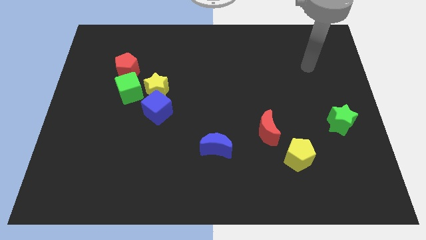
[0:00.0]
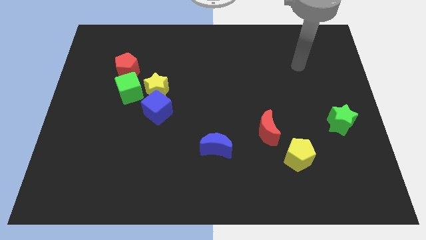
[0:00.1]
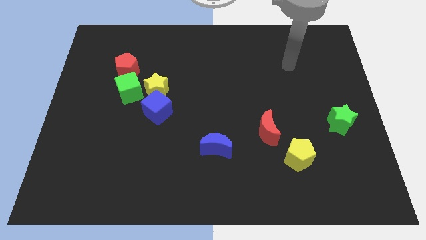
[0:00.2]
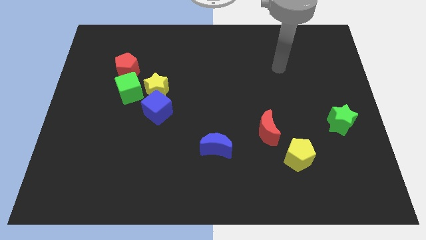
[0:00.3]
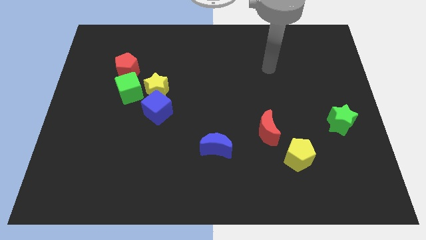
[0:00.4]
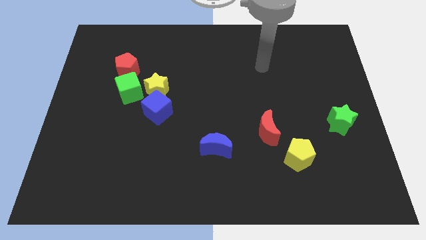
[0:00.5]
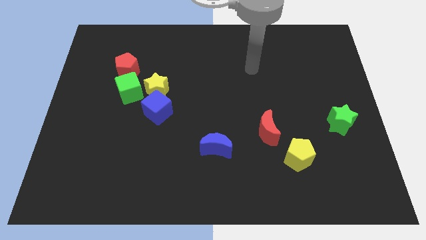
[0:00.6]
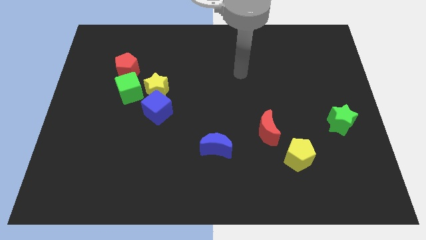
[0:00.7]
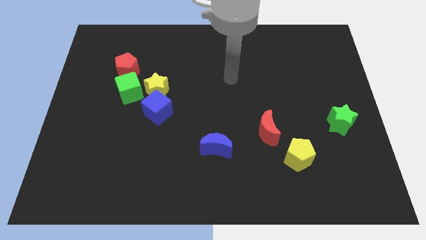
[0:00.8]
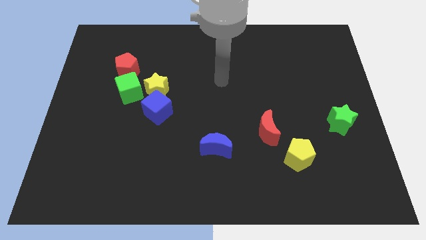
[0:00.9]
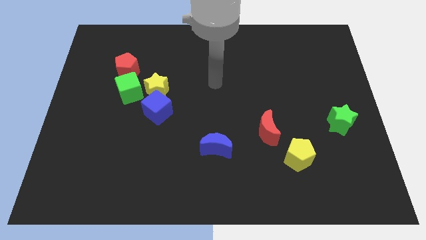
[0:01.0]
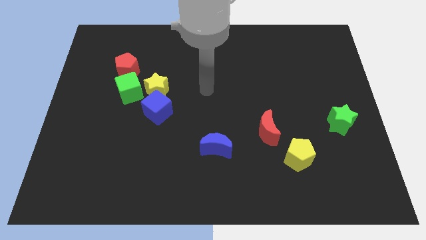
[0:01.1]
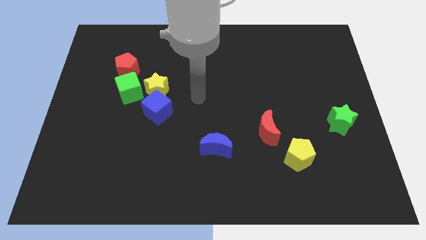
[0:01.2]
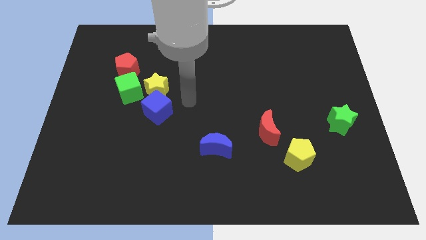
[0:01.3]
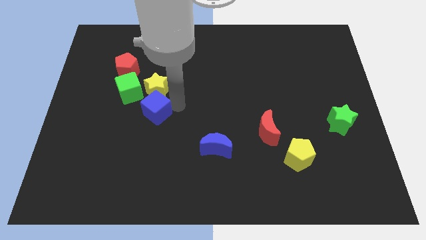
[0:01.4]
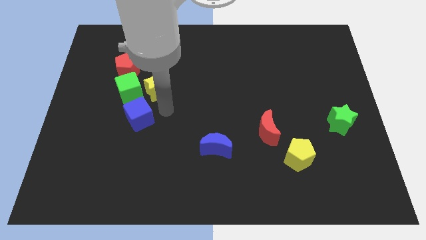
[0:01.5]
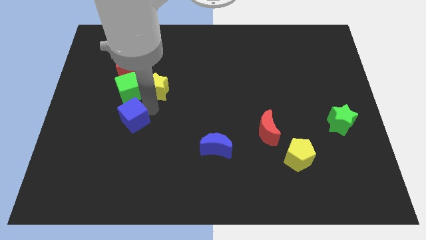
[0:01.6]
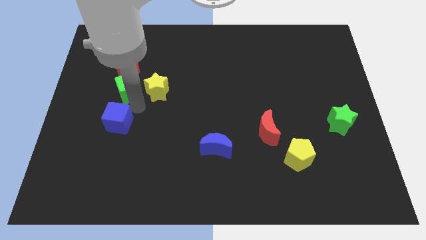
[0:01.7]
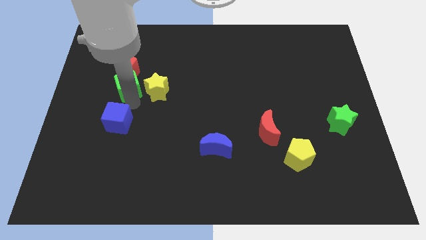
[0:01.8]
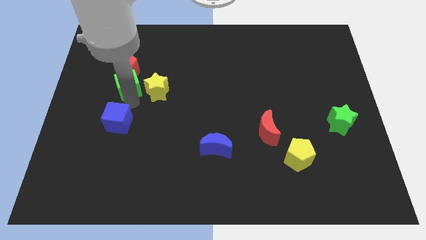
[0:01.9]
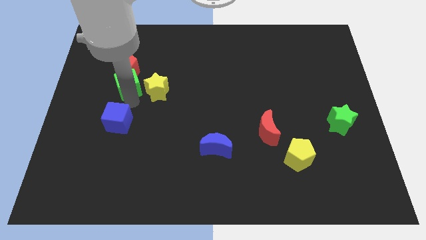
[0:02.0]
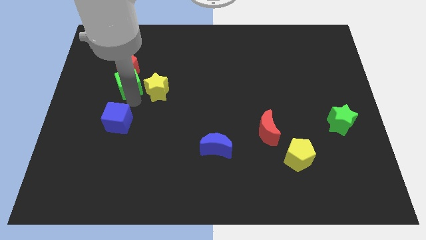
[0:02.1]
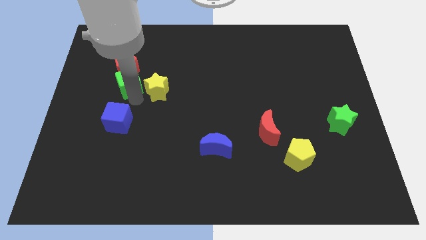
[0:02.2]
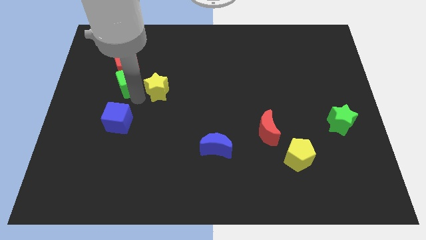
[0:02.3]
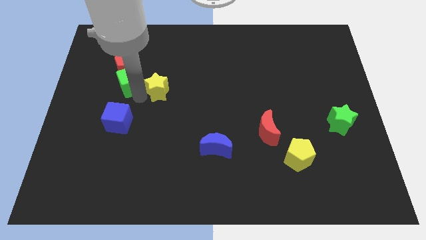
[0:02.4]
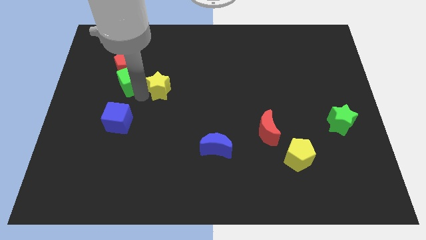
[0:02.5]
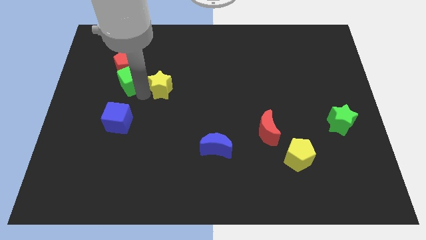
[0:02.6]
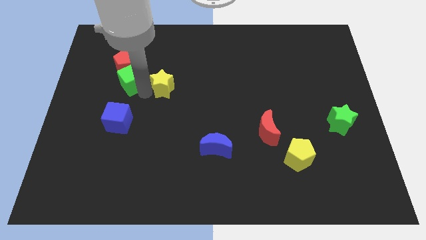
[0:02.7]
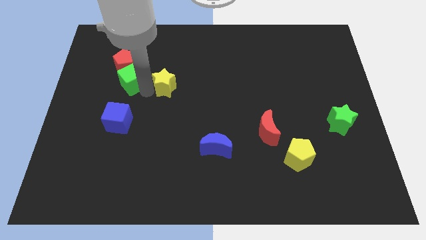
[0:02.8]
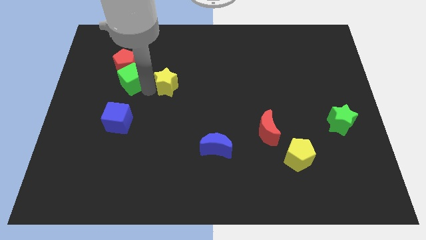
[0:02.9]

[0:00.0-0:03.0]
move the yellow star away from the blue cube and green cube

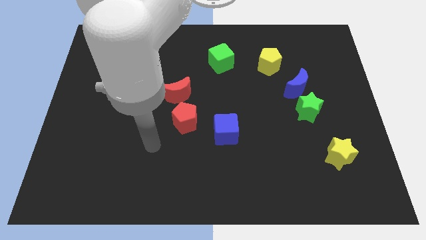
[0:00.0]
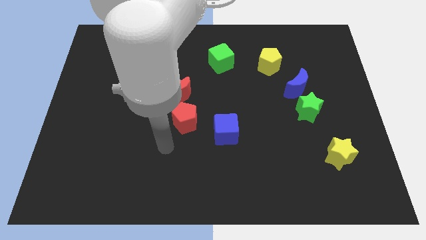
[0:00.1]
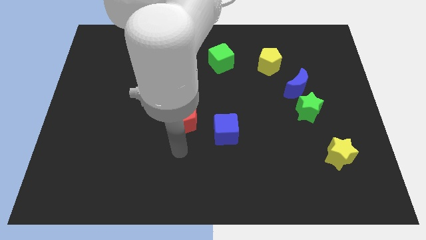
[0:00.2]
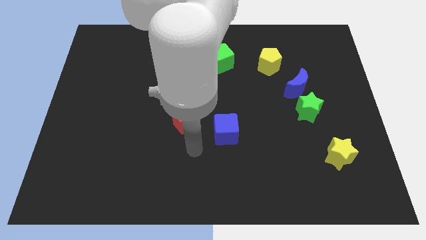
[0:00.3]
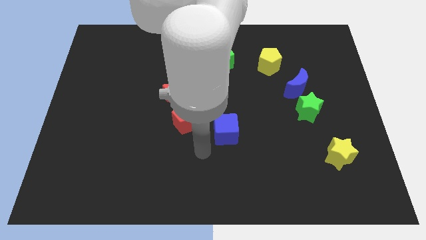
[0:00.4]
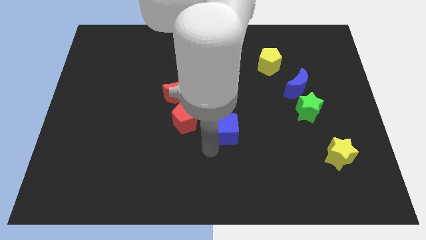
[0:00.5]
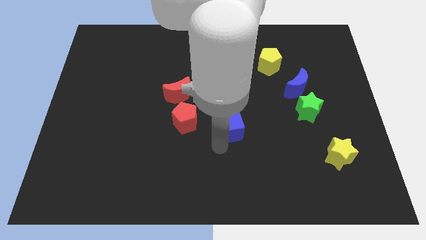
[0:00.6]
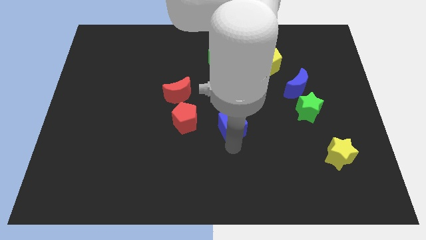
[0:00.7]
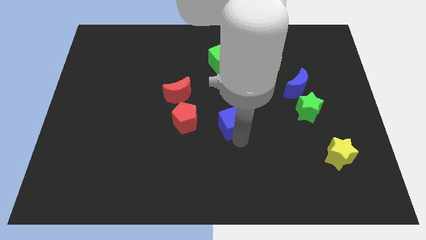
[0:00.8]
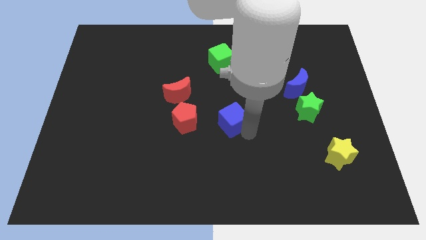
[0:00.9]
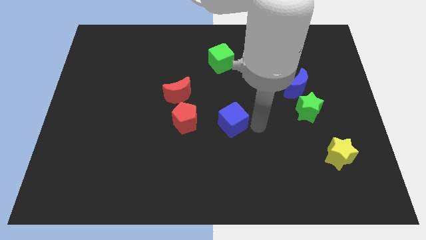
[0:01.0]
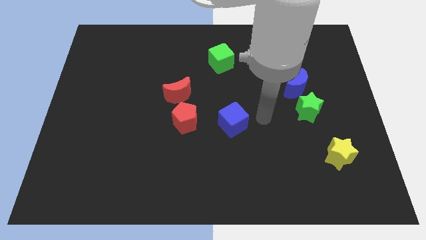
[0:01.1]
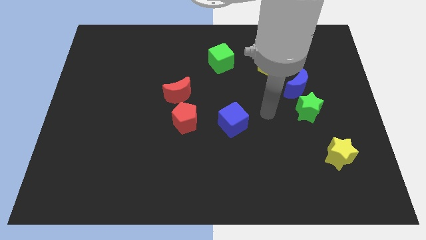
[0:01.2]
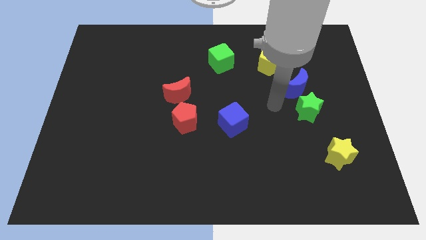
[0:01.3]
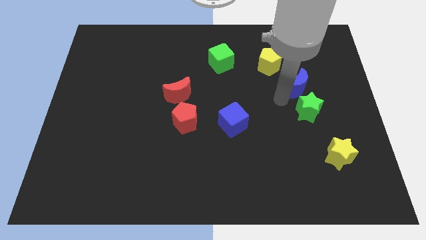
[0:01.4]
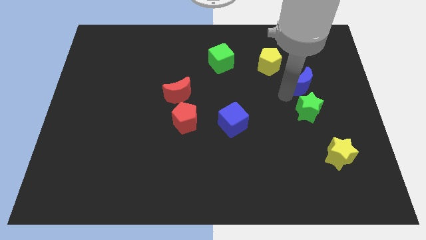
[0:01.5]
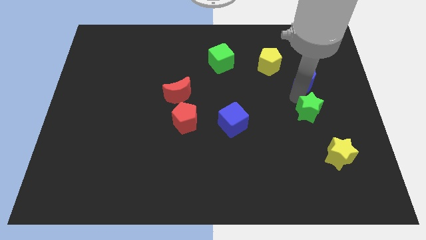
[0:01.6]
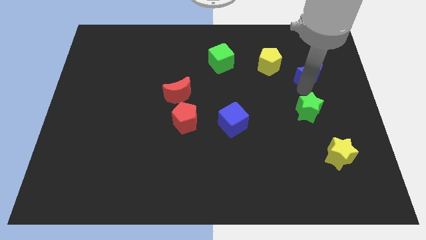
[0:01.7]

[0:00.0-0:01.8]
separate the green star from the blue moon

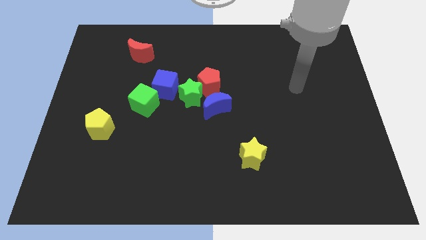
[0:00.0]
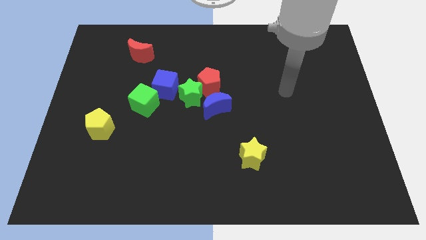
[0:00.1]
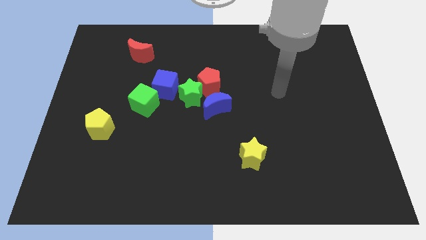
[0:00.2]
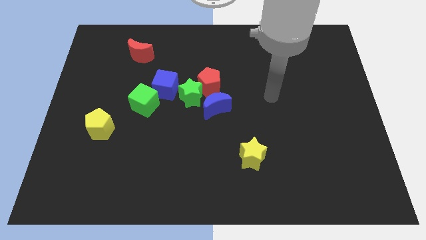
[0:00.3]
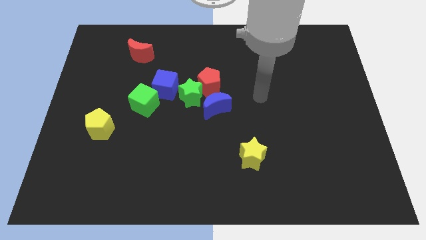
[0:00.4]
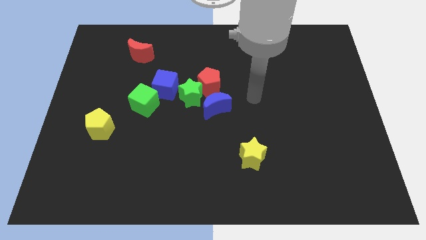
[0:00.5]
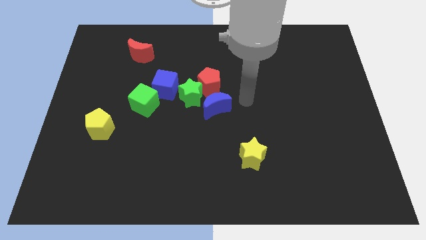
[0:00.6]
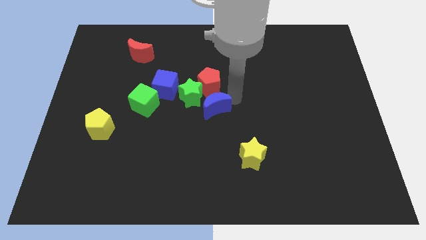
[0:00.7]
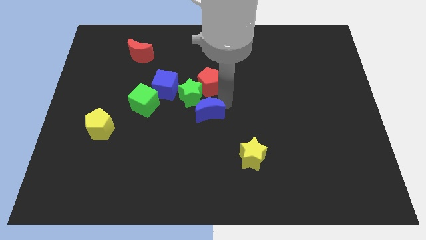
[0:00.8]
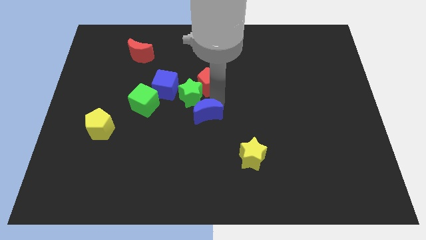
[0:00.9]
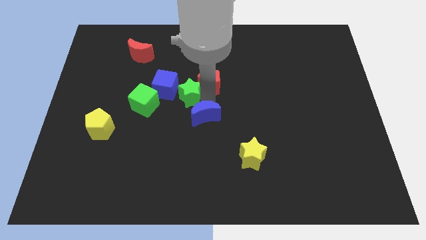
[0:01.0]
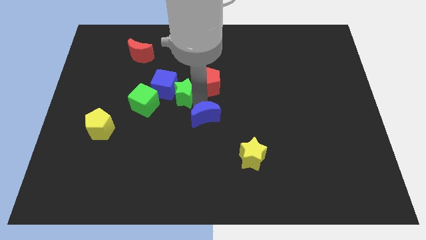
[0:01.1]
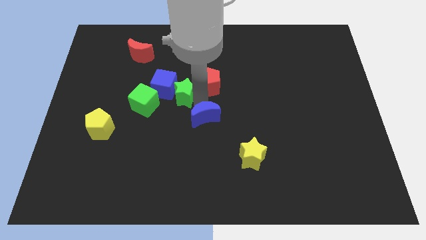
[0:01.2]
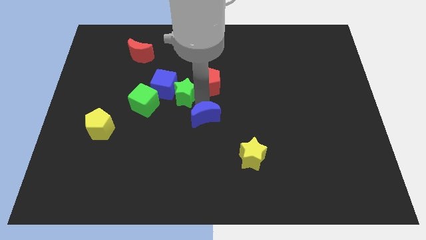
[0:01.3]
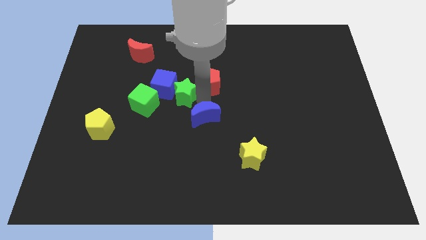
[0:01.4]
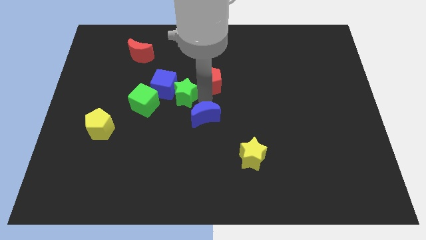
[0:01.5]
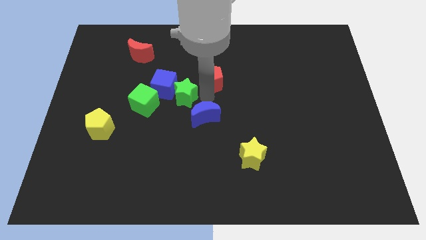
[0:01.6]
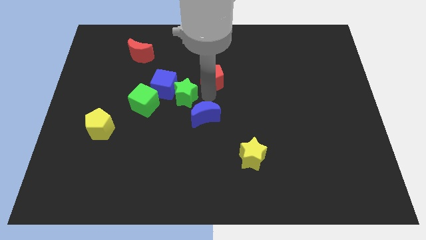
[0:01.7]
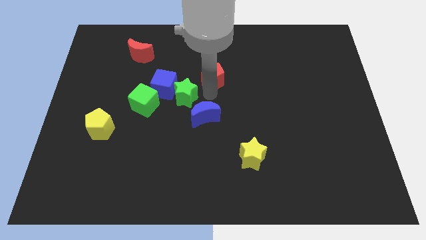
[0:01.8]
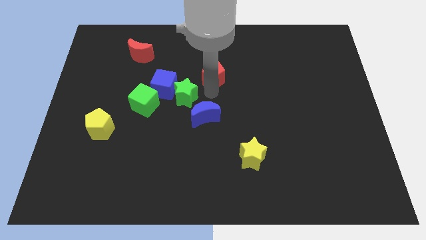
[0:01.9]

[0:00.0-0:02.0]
pull the red pentagon apart from the green star and blue moon

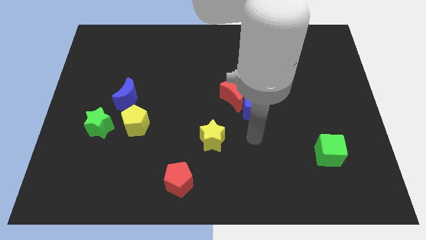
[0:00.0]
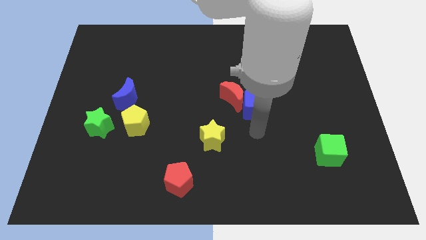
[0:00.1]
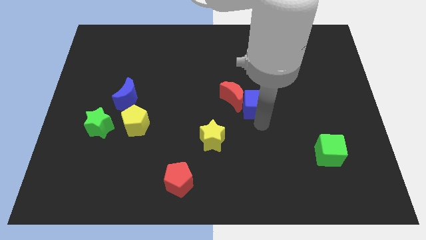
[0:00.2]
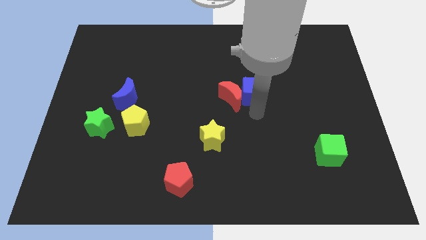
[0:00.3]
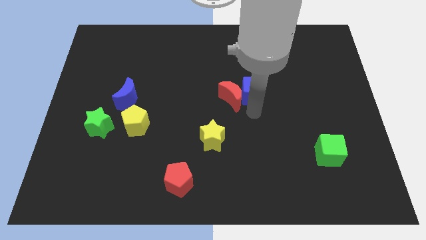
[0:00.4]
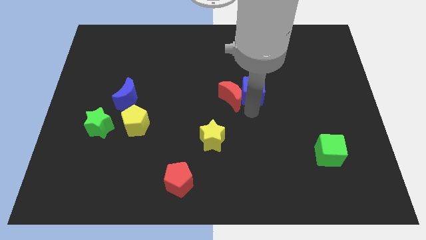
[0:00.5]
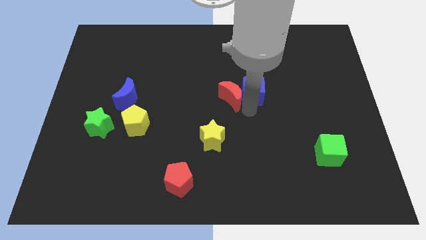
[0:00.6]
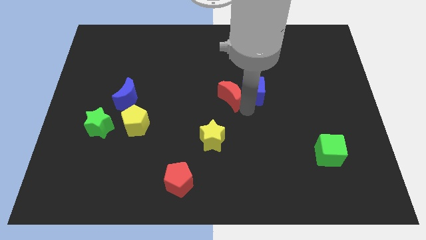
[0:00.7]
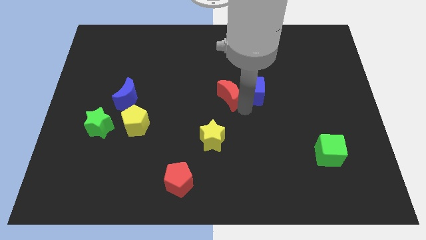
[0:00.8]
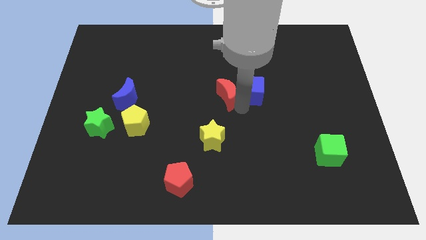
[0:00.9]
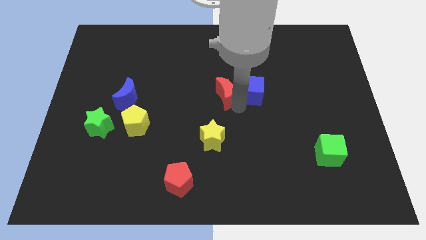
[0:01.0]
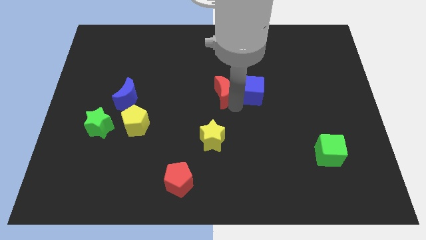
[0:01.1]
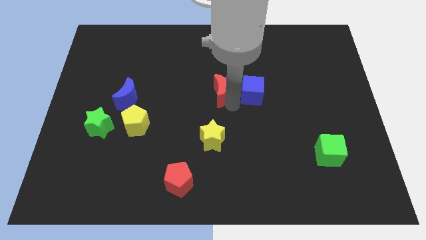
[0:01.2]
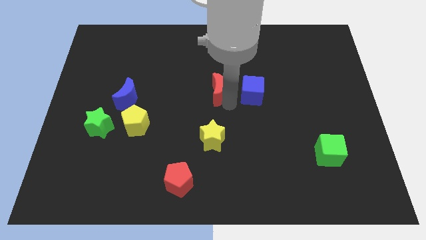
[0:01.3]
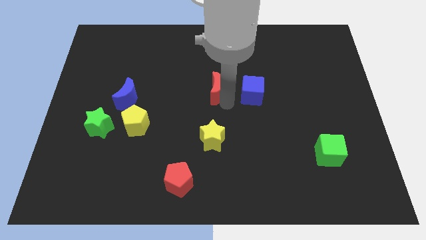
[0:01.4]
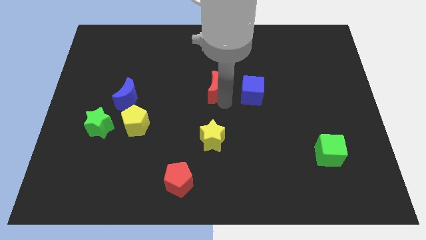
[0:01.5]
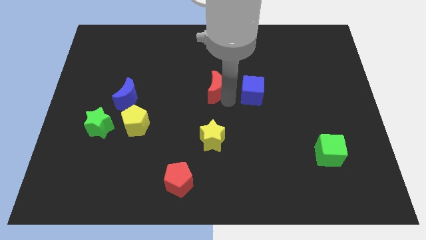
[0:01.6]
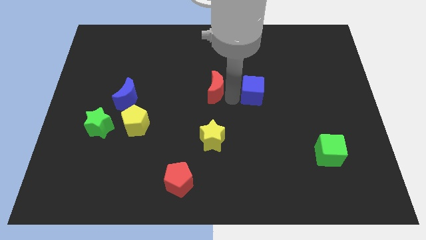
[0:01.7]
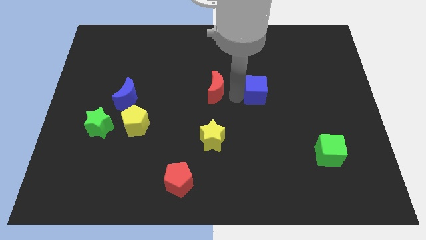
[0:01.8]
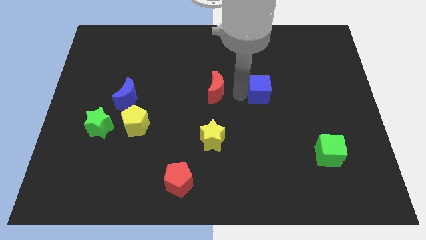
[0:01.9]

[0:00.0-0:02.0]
separate the red moon from the blue cube

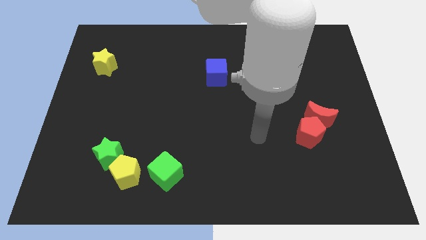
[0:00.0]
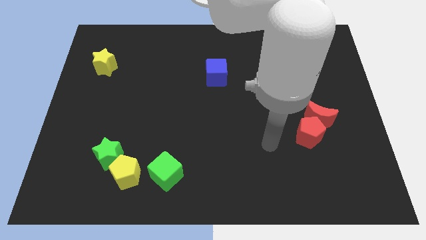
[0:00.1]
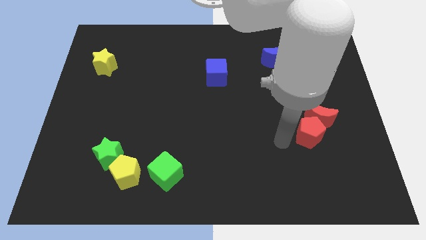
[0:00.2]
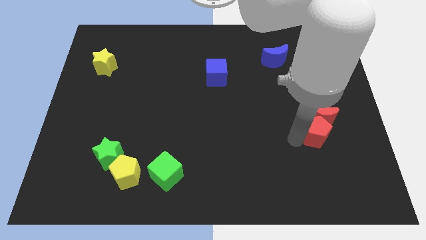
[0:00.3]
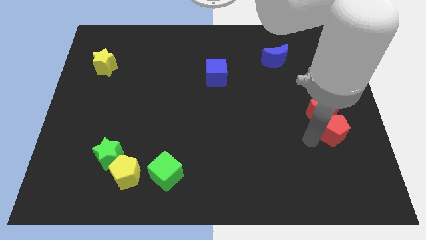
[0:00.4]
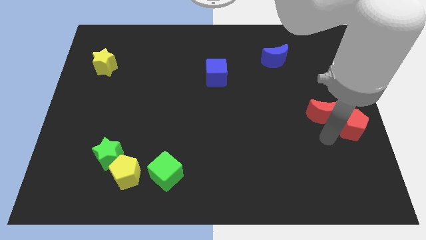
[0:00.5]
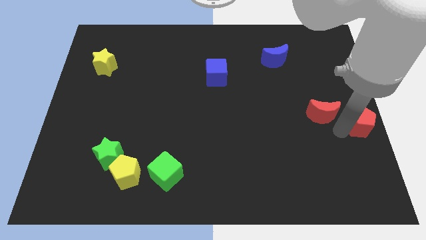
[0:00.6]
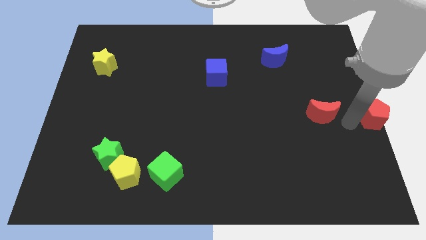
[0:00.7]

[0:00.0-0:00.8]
separate the red moon from the red pentagon
